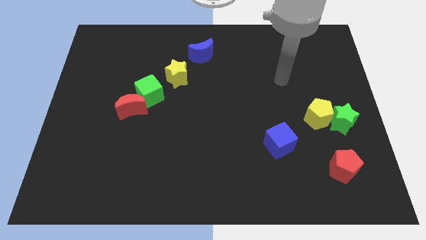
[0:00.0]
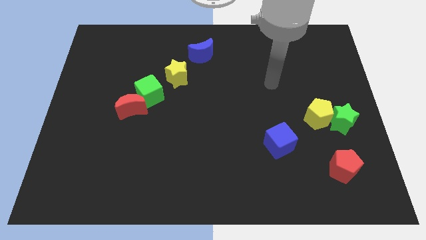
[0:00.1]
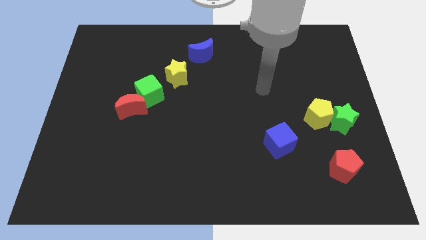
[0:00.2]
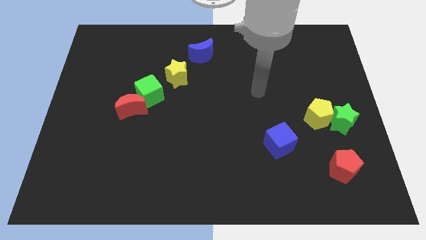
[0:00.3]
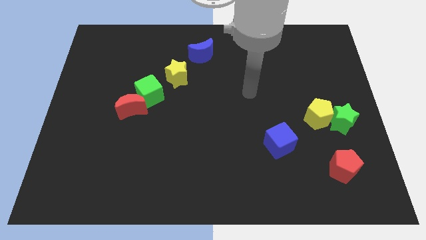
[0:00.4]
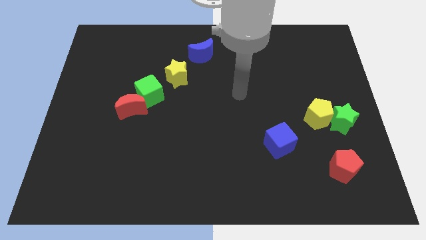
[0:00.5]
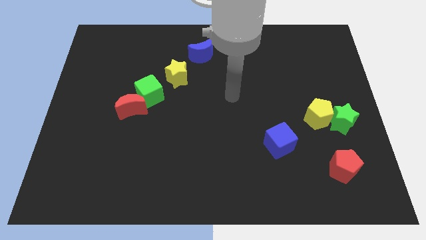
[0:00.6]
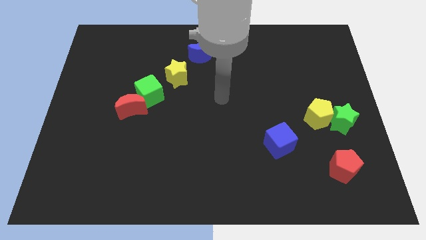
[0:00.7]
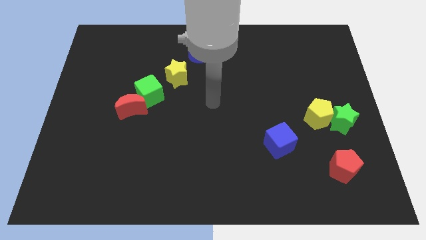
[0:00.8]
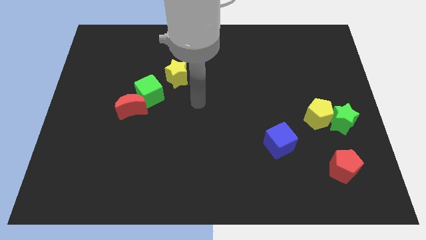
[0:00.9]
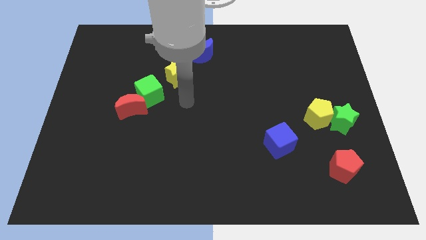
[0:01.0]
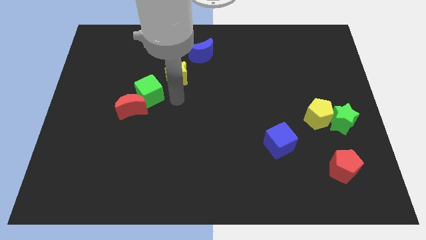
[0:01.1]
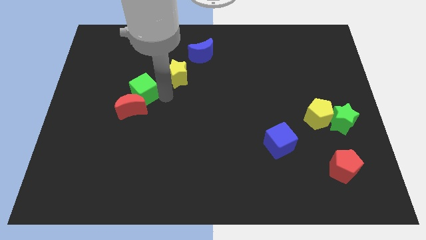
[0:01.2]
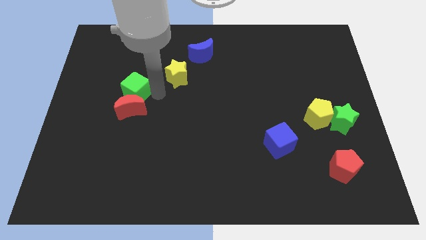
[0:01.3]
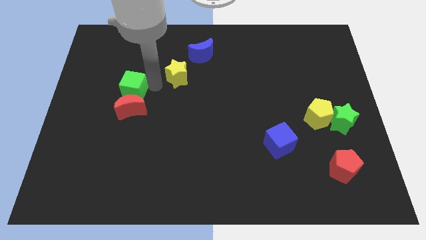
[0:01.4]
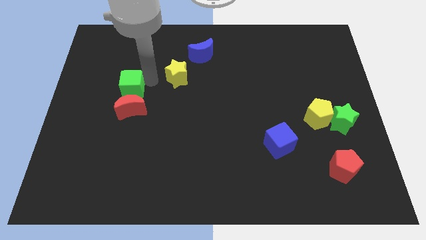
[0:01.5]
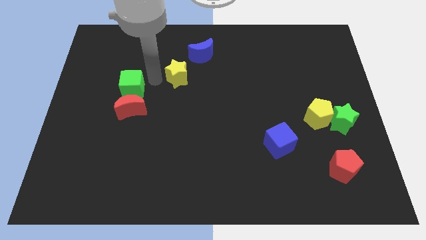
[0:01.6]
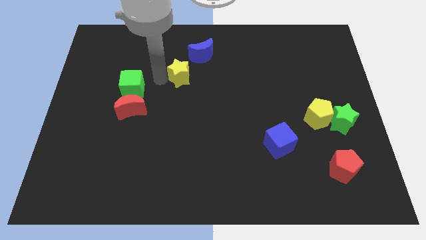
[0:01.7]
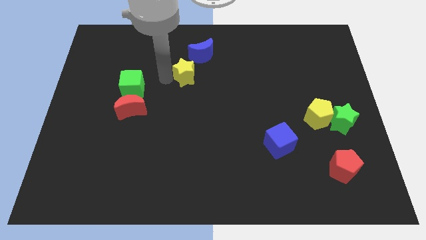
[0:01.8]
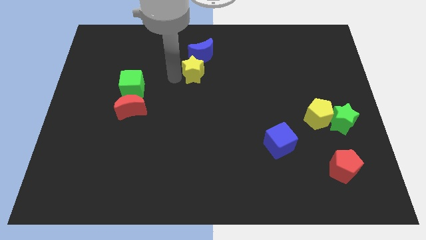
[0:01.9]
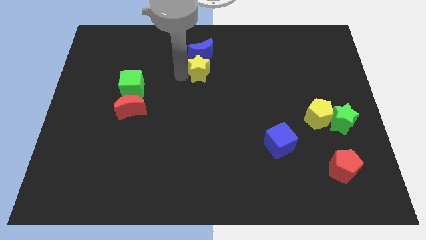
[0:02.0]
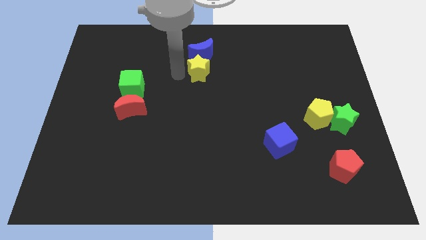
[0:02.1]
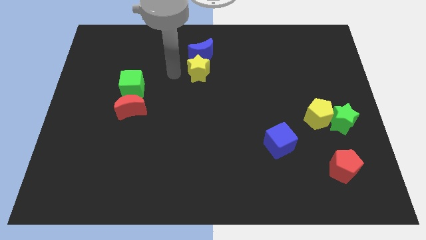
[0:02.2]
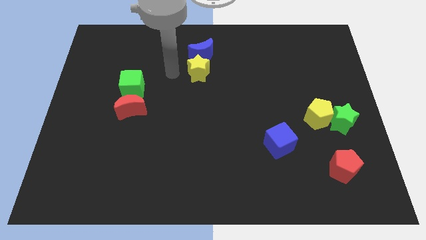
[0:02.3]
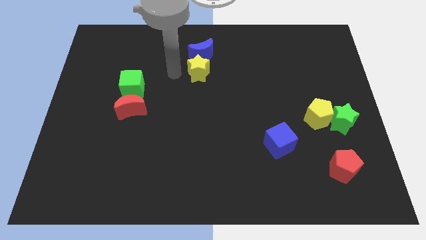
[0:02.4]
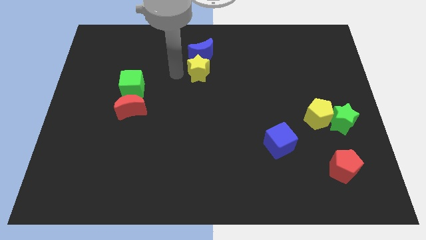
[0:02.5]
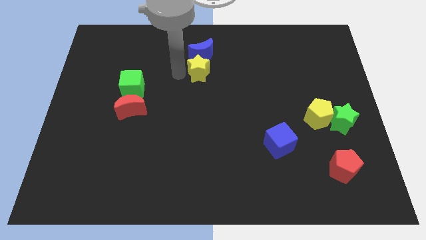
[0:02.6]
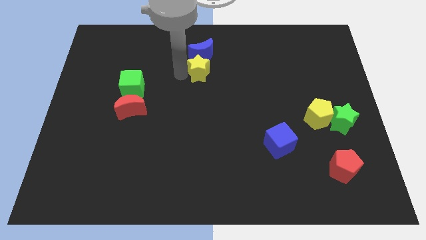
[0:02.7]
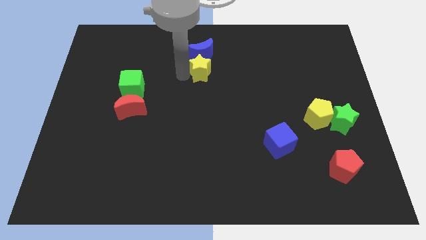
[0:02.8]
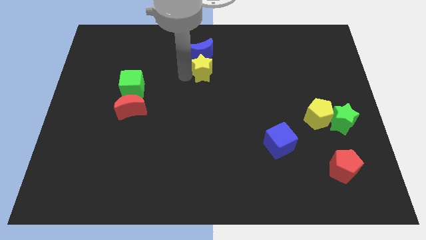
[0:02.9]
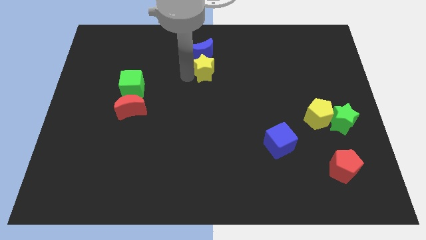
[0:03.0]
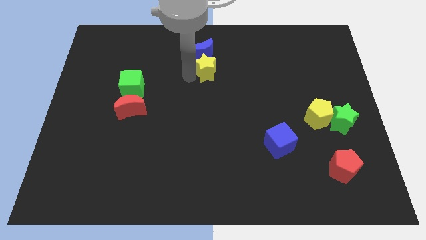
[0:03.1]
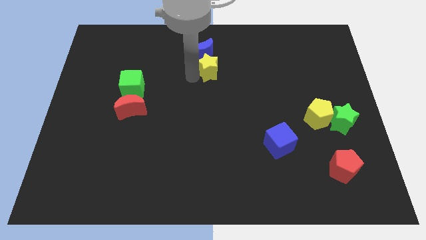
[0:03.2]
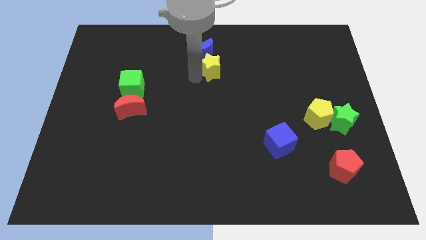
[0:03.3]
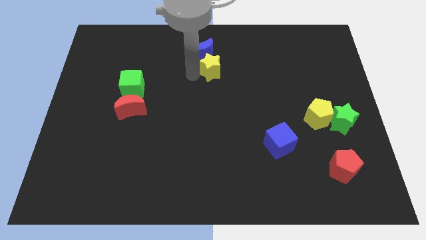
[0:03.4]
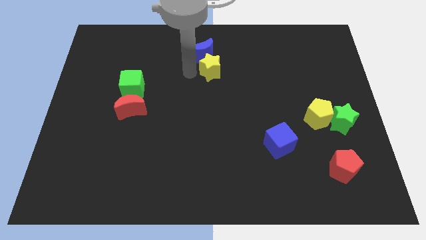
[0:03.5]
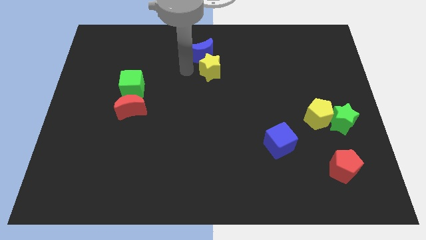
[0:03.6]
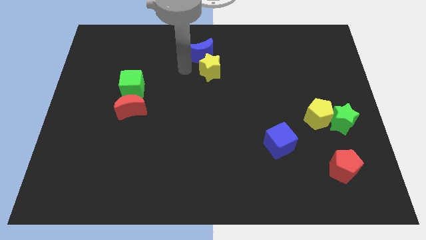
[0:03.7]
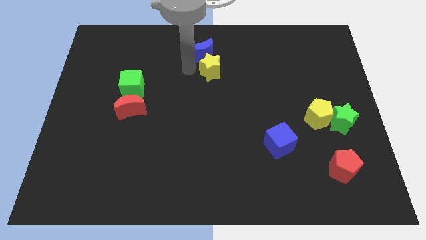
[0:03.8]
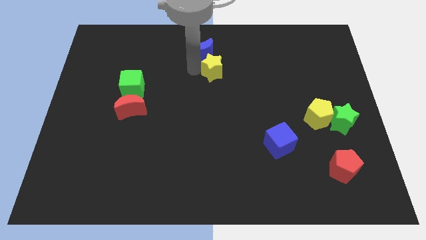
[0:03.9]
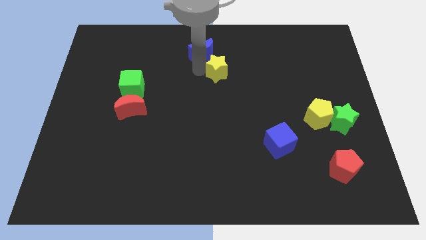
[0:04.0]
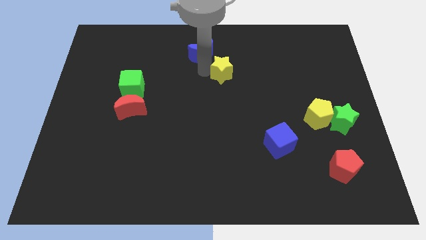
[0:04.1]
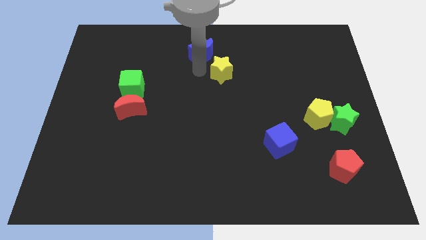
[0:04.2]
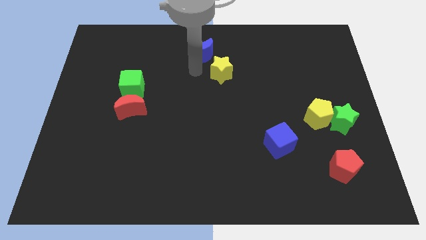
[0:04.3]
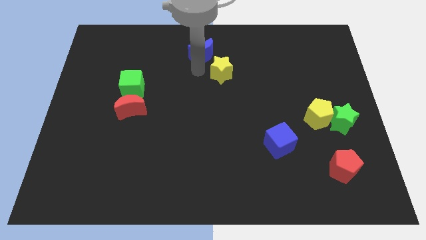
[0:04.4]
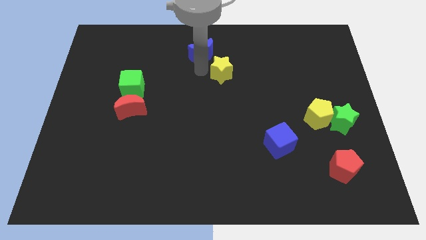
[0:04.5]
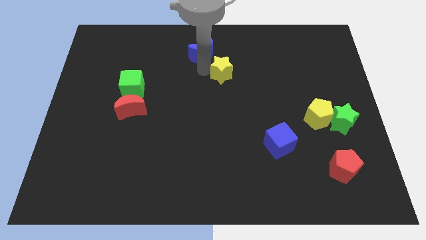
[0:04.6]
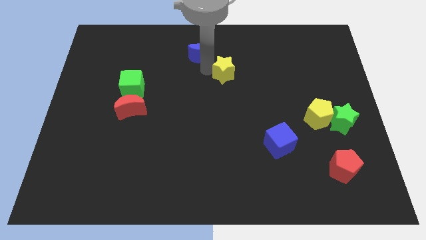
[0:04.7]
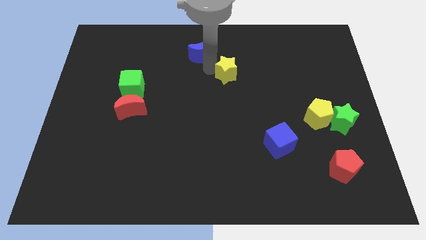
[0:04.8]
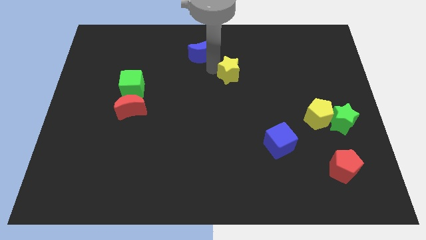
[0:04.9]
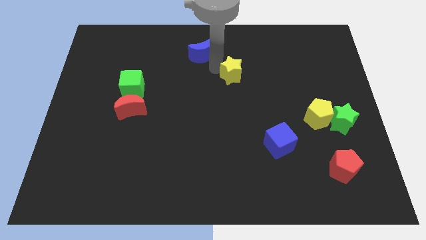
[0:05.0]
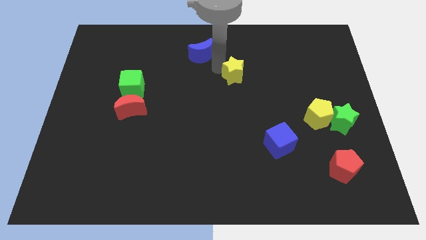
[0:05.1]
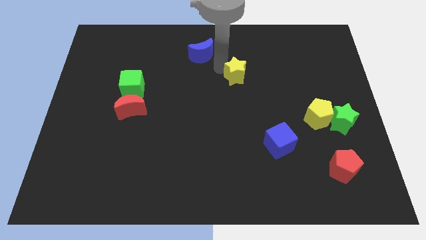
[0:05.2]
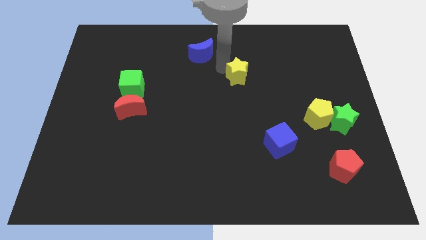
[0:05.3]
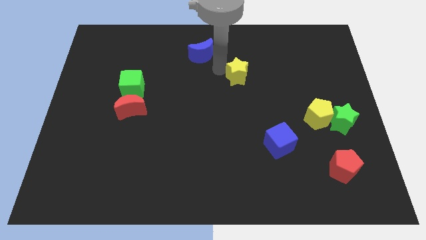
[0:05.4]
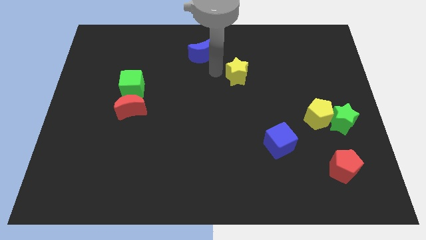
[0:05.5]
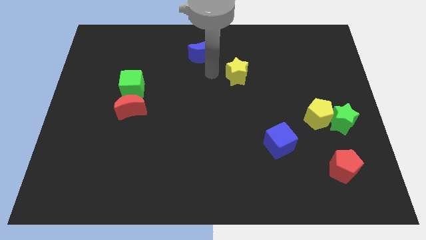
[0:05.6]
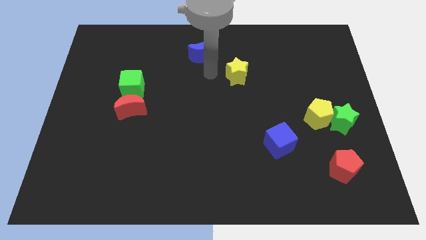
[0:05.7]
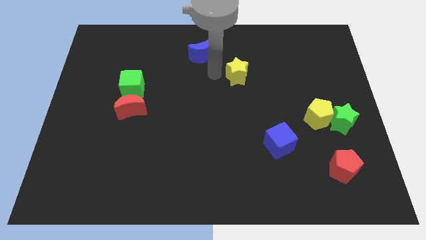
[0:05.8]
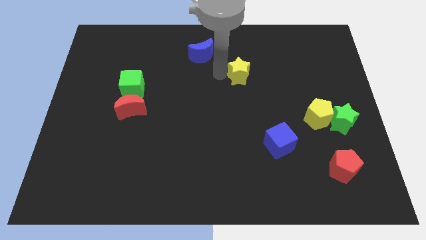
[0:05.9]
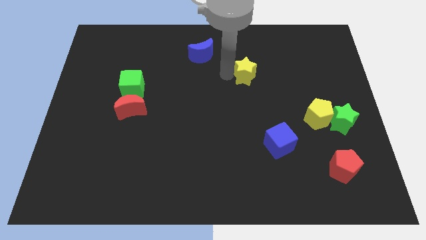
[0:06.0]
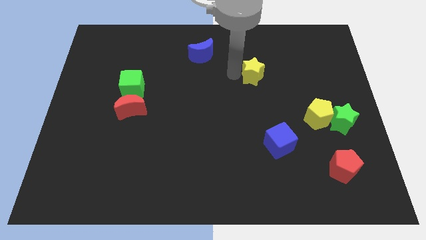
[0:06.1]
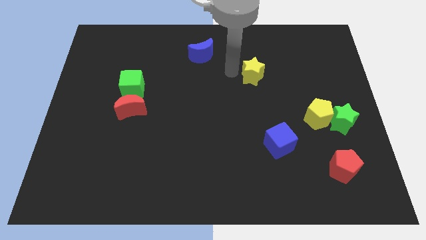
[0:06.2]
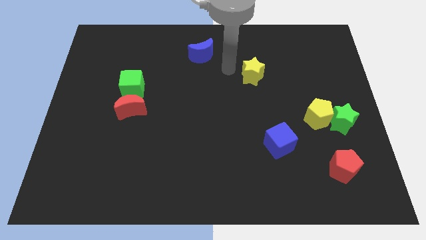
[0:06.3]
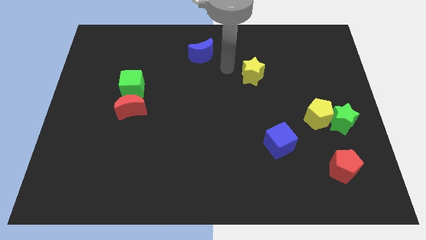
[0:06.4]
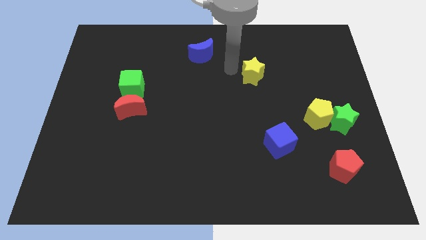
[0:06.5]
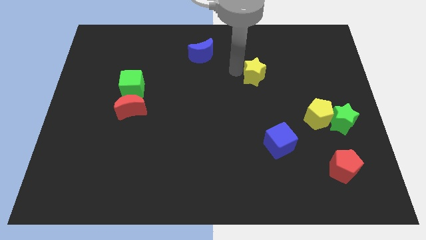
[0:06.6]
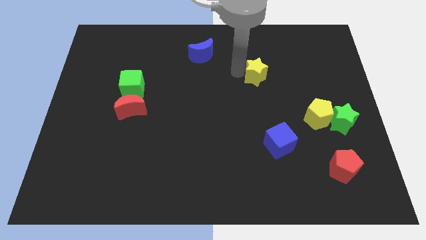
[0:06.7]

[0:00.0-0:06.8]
push the yellow star right

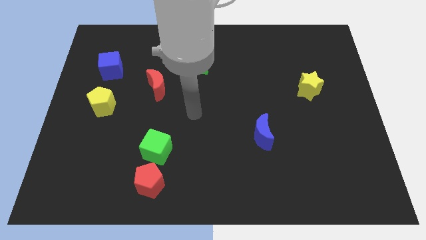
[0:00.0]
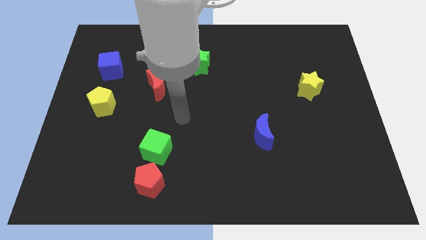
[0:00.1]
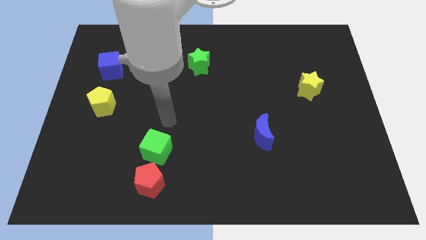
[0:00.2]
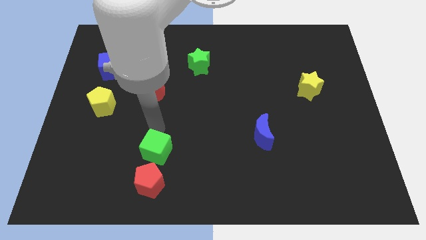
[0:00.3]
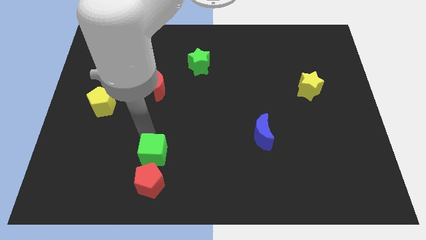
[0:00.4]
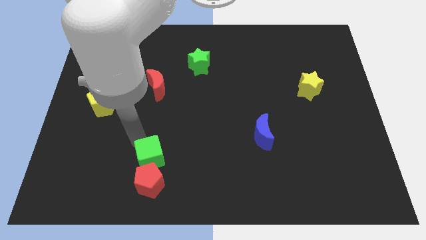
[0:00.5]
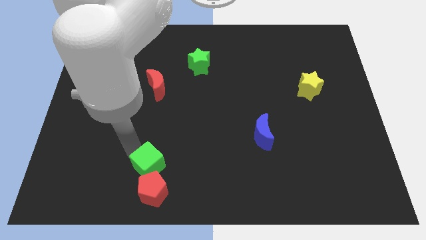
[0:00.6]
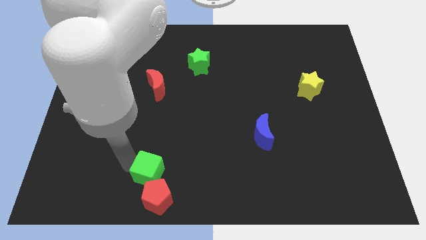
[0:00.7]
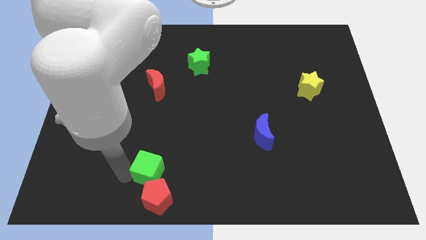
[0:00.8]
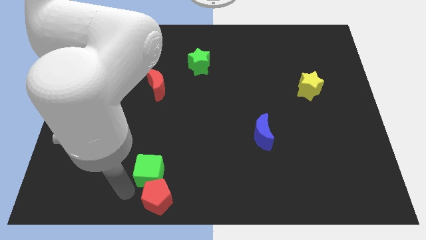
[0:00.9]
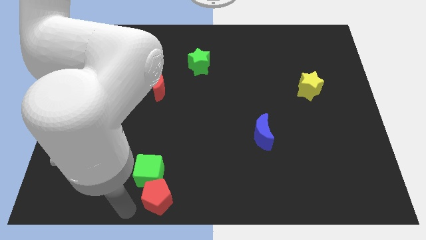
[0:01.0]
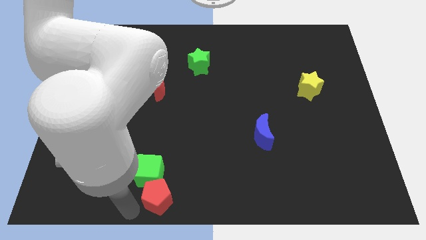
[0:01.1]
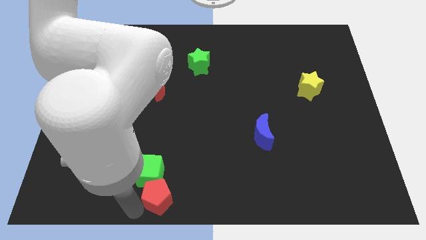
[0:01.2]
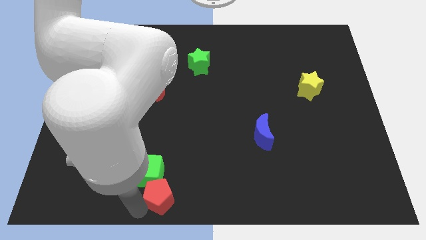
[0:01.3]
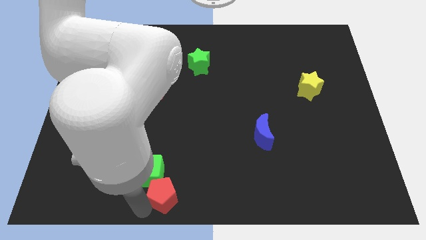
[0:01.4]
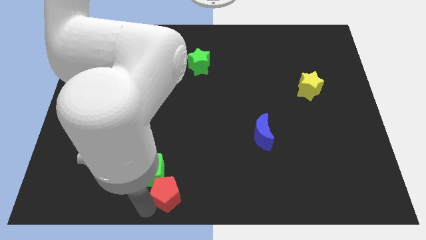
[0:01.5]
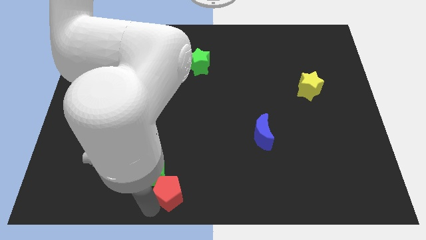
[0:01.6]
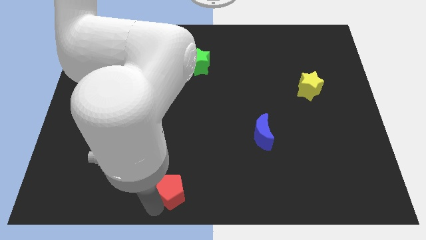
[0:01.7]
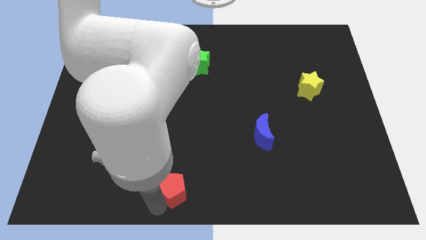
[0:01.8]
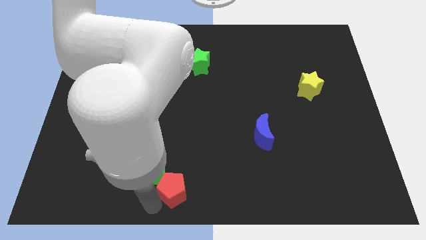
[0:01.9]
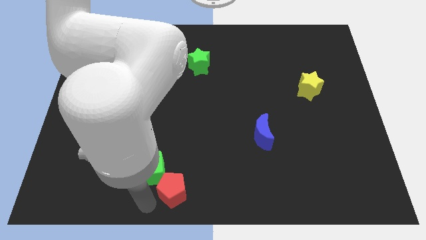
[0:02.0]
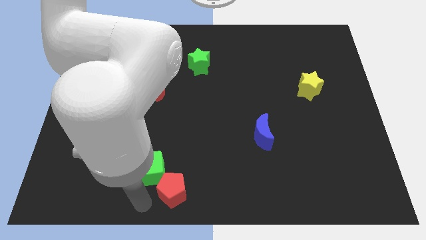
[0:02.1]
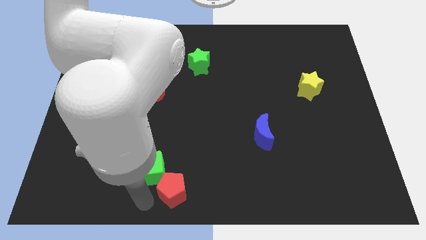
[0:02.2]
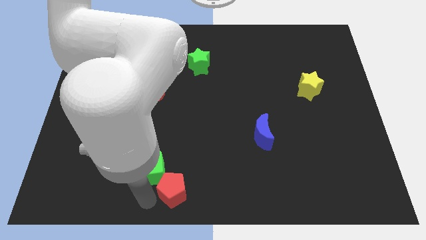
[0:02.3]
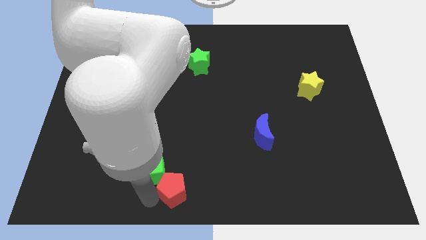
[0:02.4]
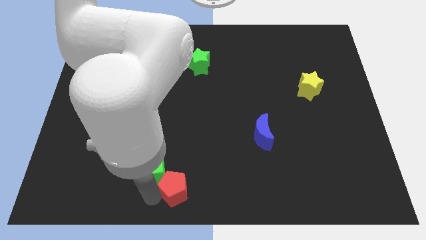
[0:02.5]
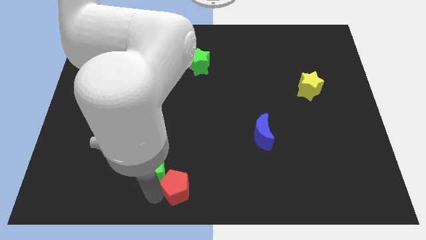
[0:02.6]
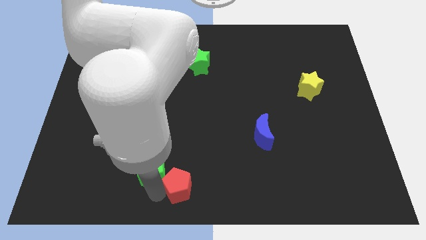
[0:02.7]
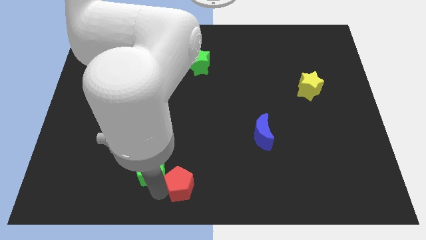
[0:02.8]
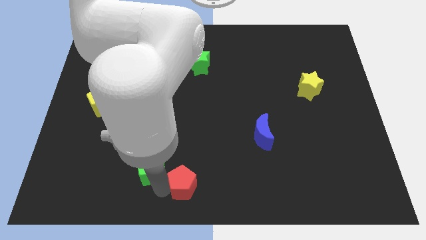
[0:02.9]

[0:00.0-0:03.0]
slightly move the red pentagon right
